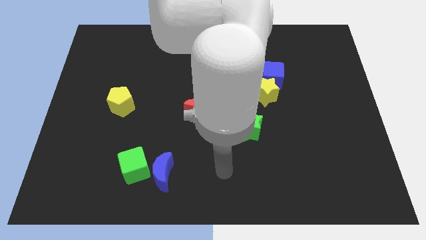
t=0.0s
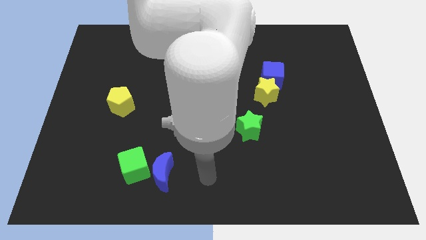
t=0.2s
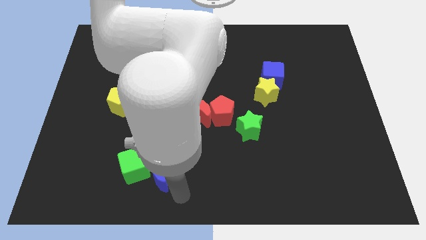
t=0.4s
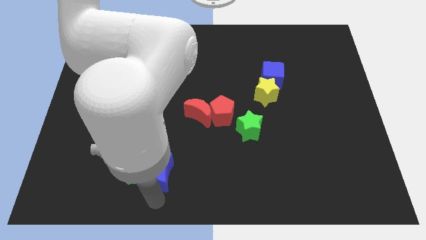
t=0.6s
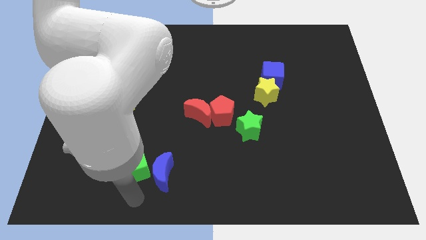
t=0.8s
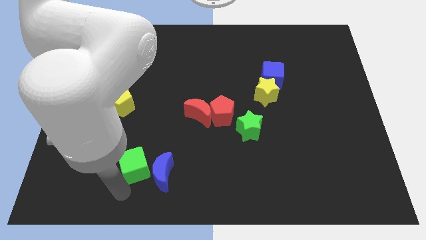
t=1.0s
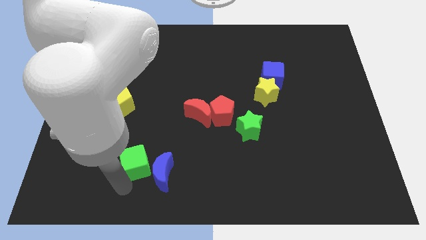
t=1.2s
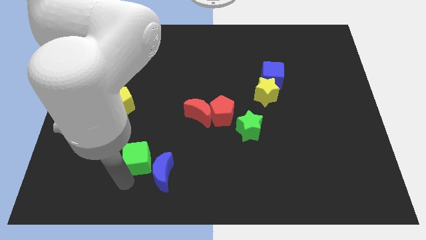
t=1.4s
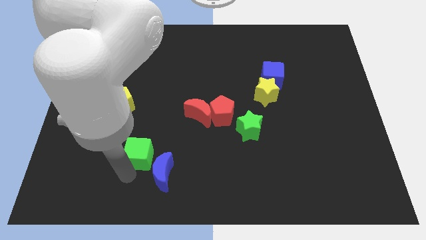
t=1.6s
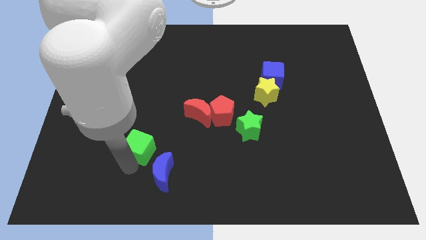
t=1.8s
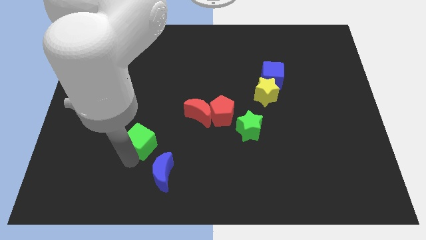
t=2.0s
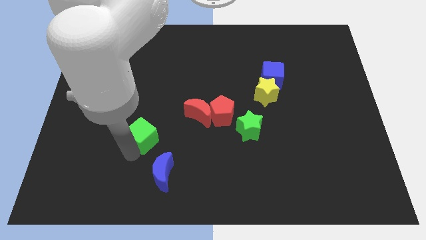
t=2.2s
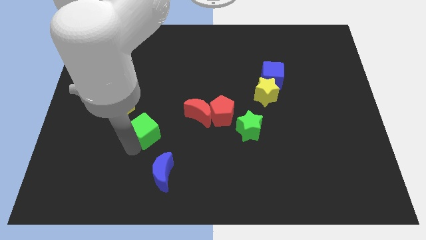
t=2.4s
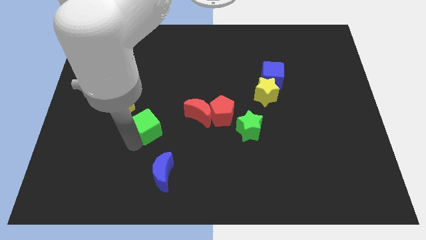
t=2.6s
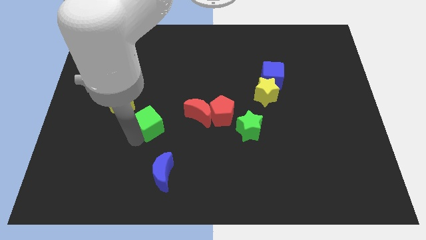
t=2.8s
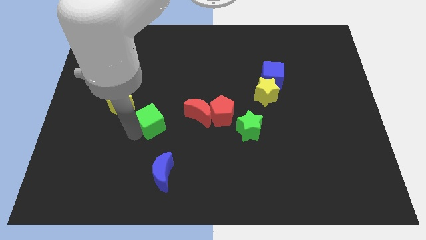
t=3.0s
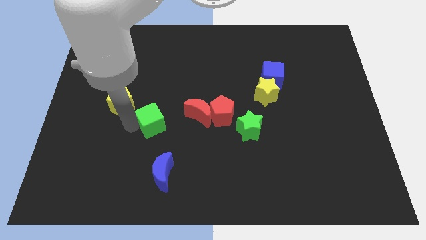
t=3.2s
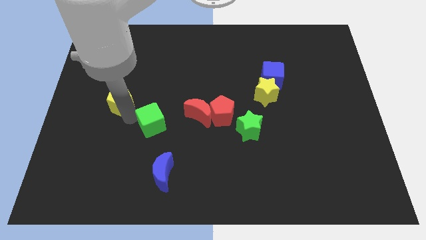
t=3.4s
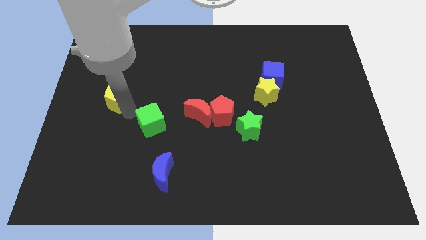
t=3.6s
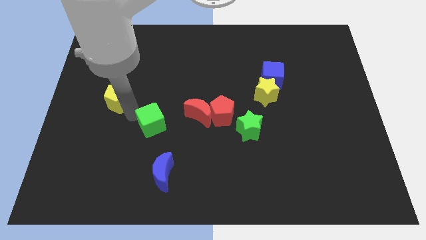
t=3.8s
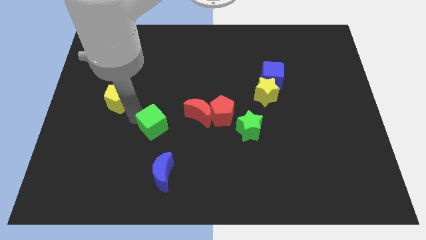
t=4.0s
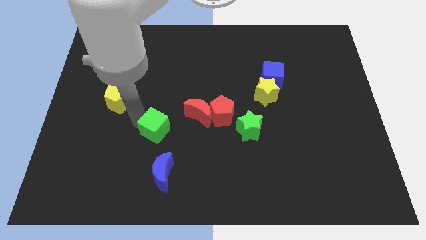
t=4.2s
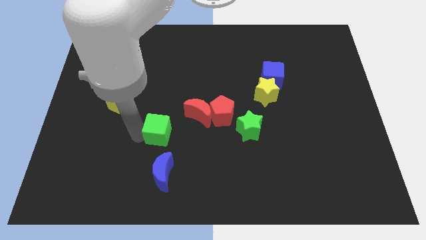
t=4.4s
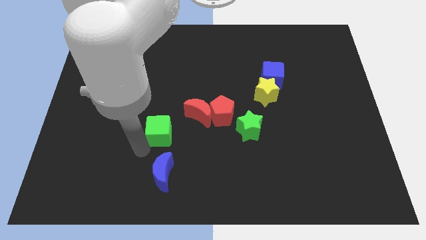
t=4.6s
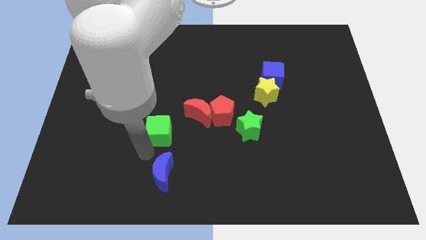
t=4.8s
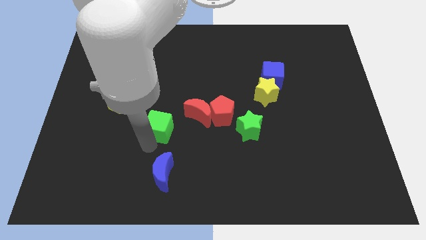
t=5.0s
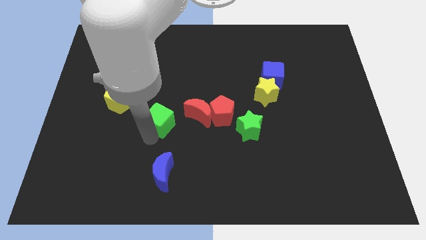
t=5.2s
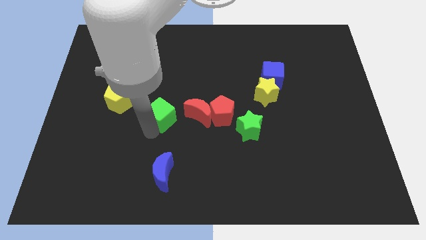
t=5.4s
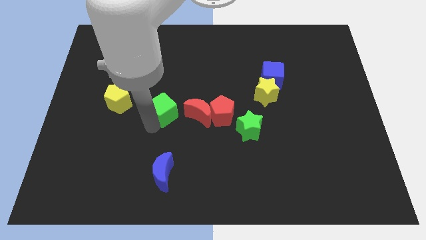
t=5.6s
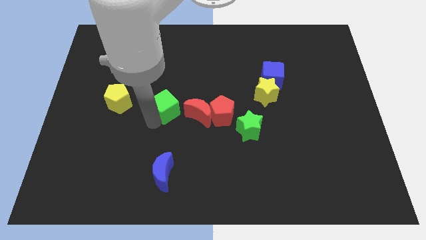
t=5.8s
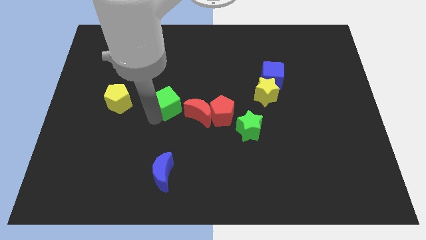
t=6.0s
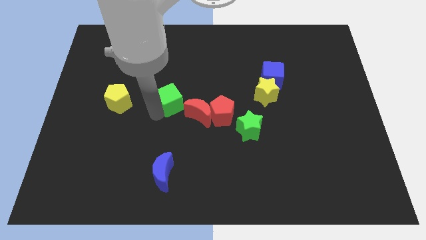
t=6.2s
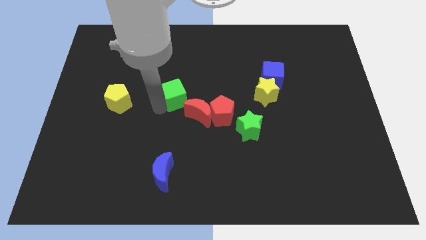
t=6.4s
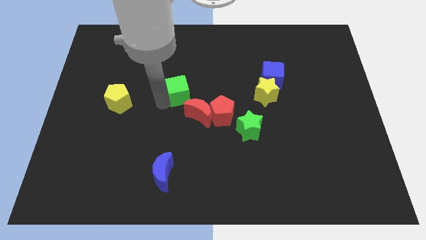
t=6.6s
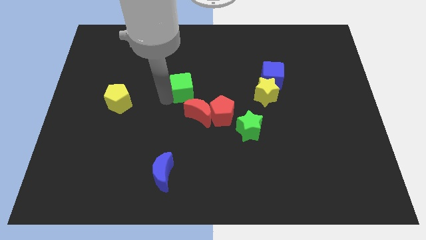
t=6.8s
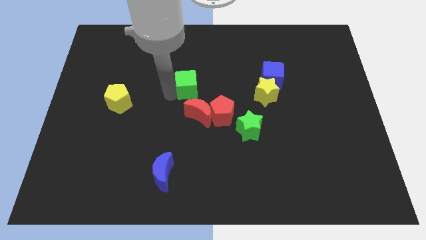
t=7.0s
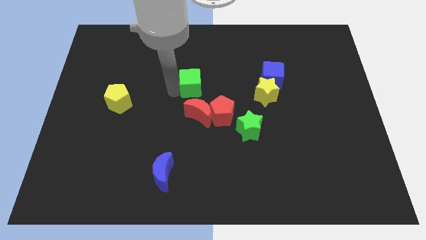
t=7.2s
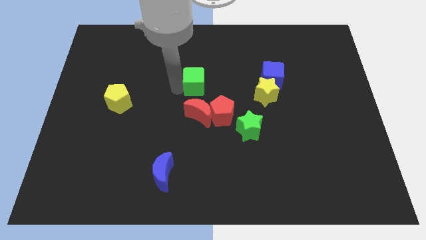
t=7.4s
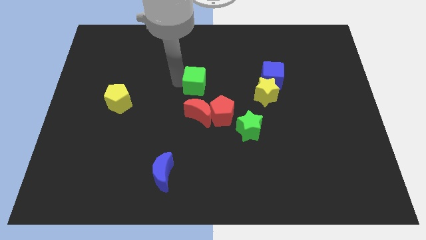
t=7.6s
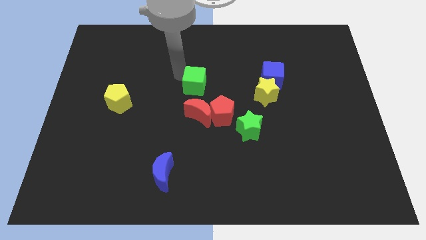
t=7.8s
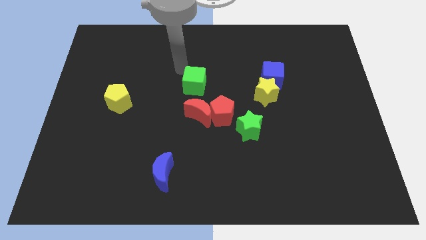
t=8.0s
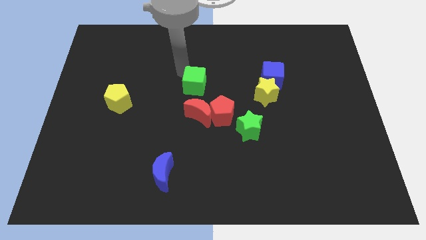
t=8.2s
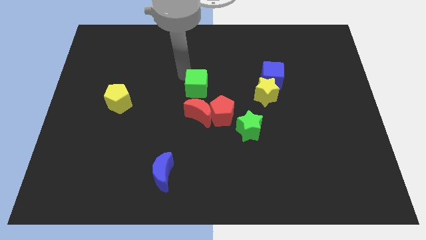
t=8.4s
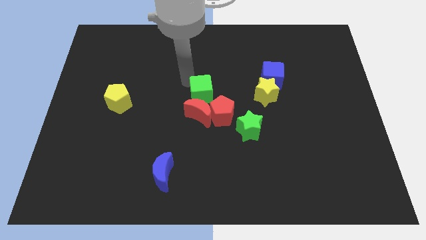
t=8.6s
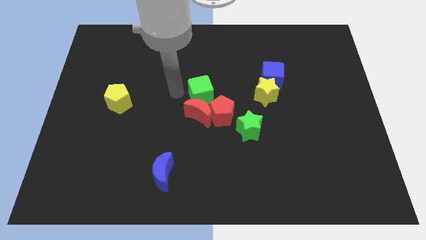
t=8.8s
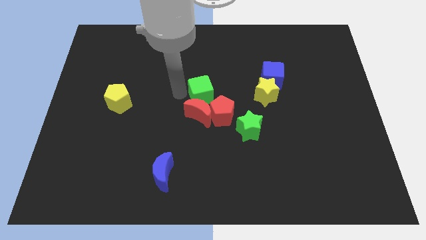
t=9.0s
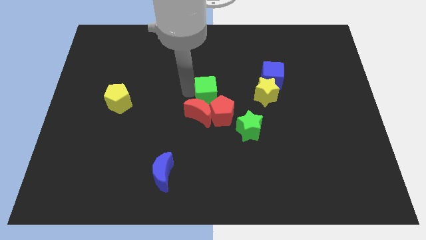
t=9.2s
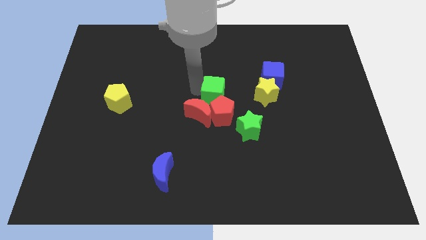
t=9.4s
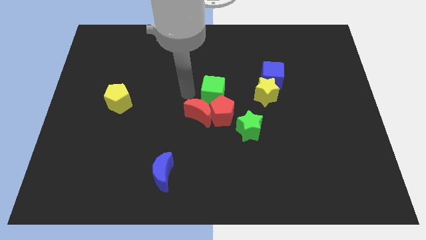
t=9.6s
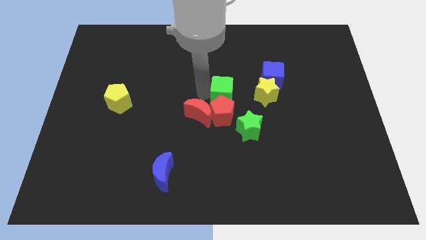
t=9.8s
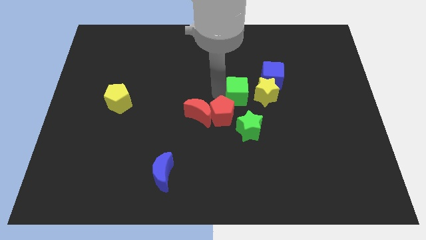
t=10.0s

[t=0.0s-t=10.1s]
put the green cube to the bottom left side of the blue cube

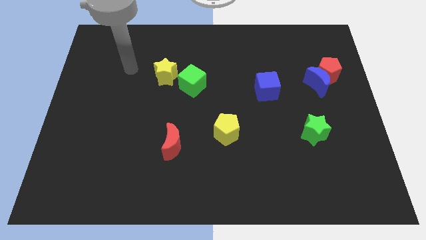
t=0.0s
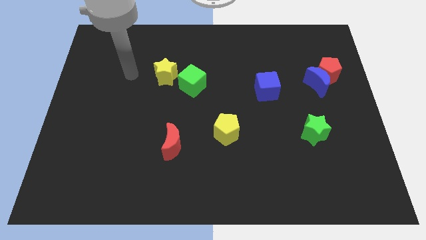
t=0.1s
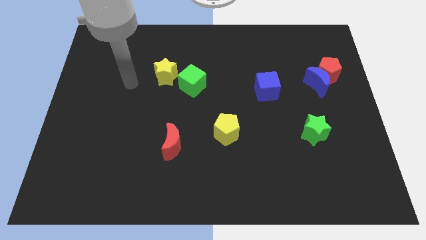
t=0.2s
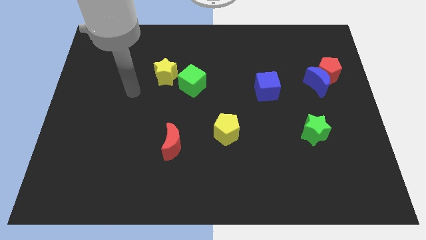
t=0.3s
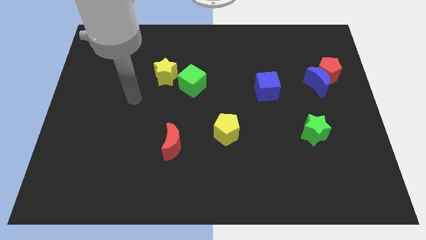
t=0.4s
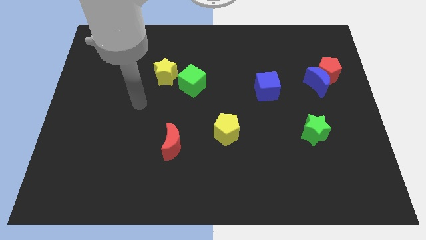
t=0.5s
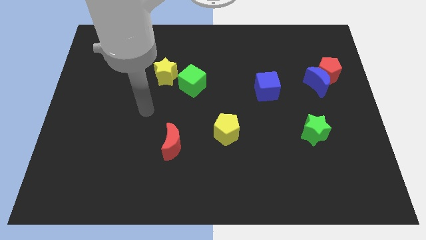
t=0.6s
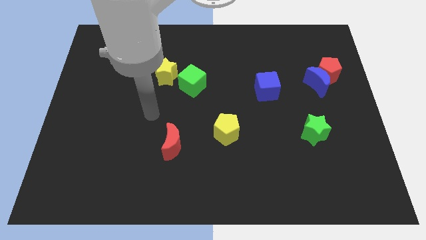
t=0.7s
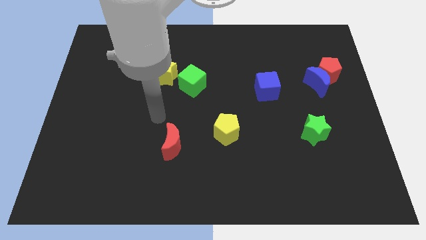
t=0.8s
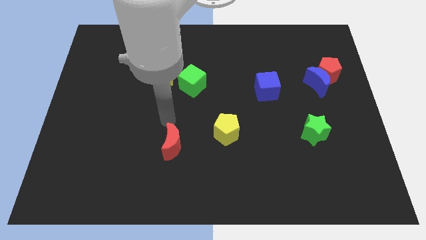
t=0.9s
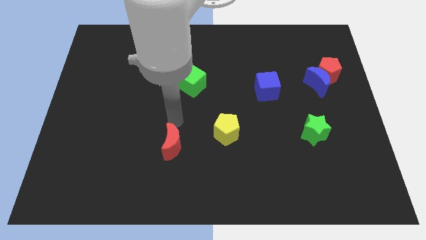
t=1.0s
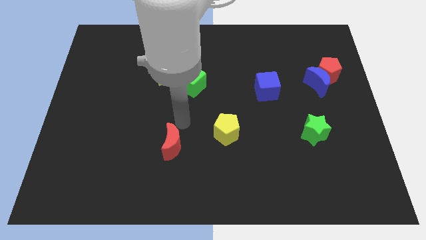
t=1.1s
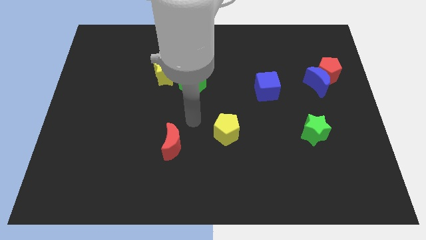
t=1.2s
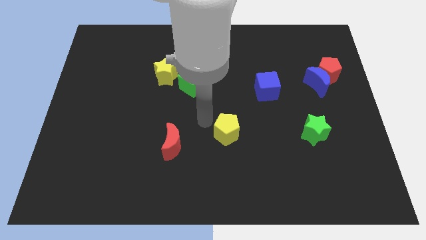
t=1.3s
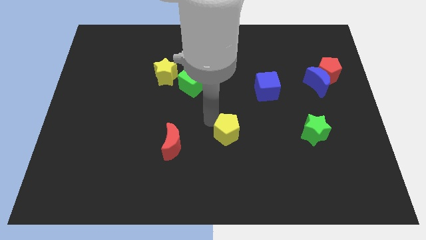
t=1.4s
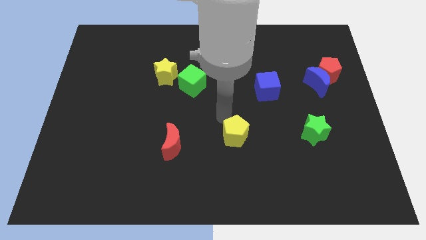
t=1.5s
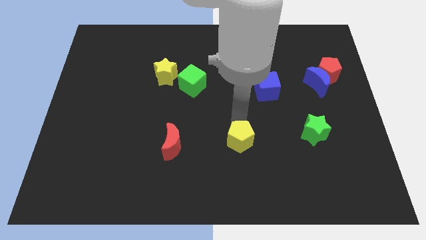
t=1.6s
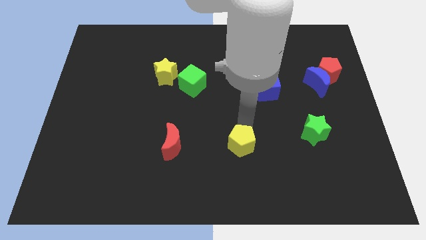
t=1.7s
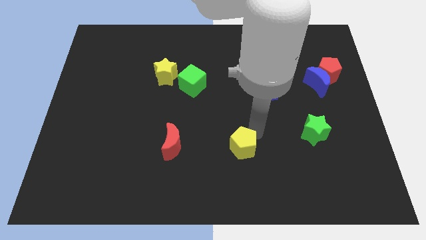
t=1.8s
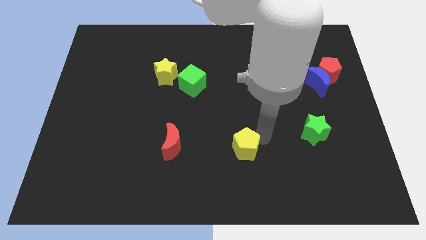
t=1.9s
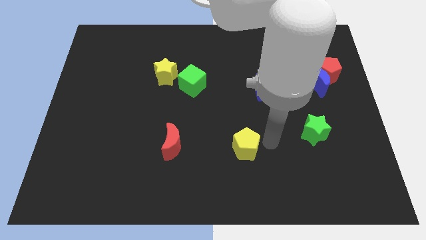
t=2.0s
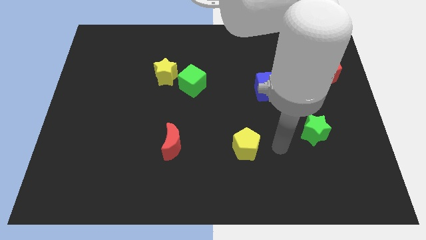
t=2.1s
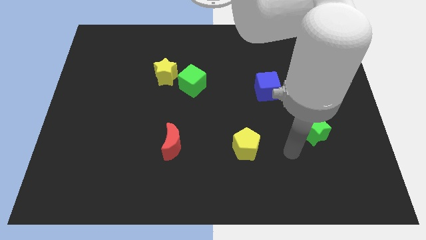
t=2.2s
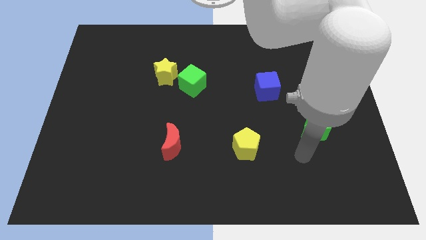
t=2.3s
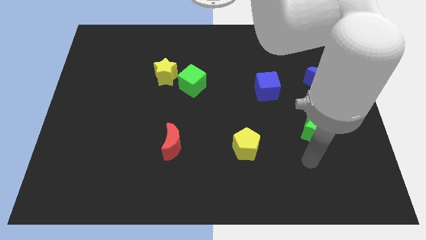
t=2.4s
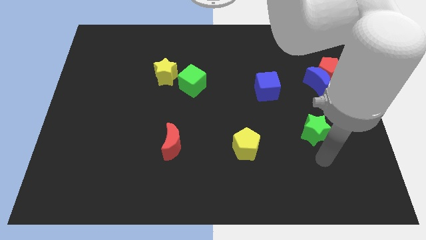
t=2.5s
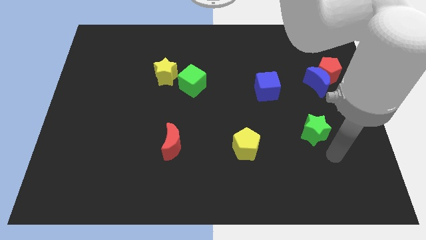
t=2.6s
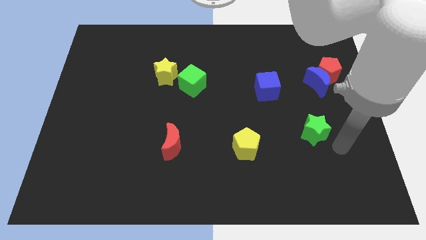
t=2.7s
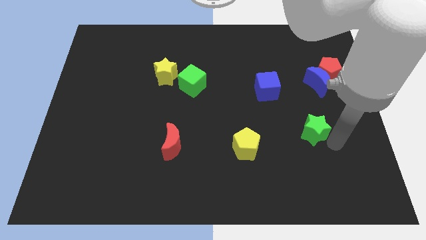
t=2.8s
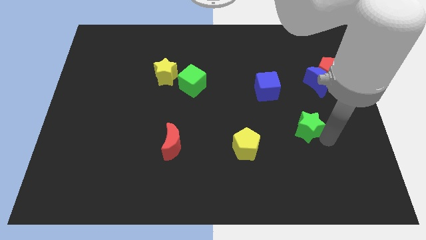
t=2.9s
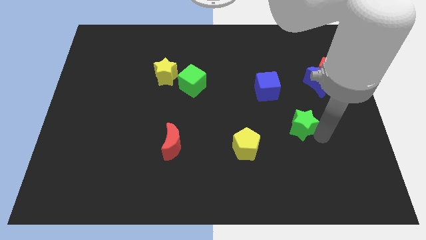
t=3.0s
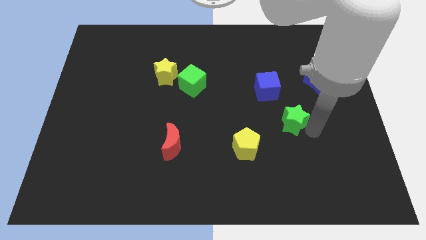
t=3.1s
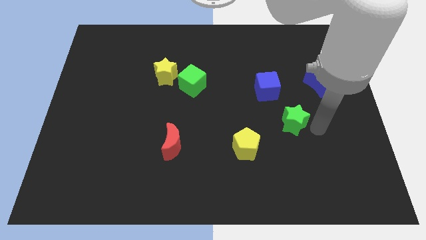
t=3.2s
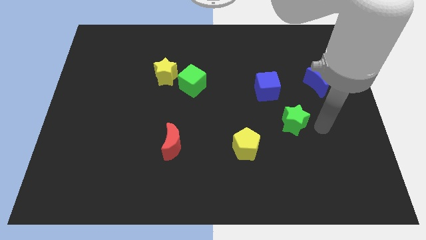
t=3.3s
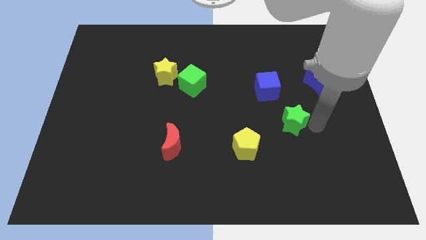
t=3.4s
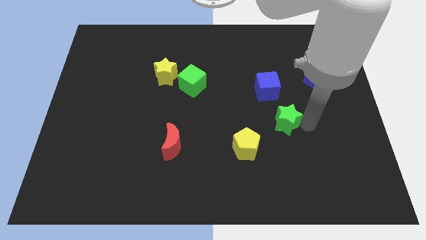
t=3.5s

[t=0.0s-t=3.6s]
slide the green star diagonally up and to the right of the yellow pentagon
